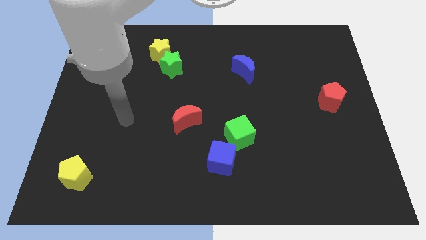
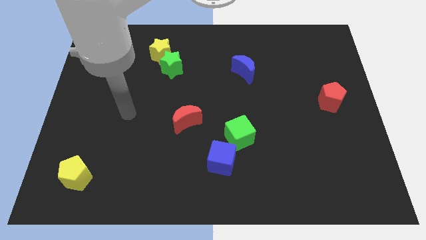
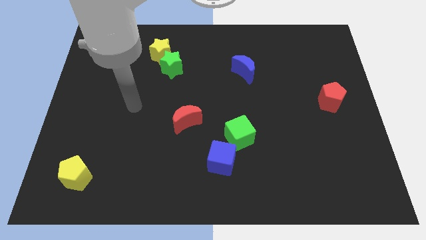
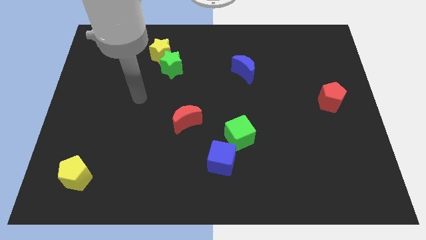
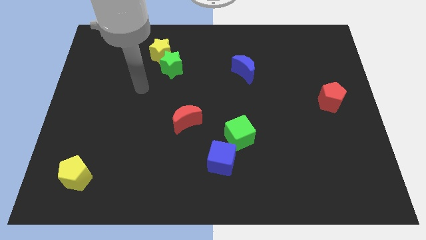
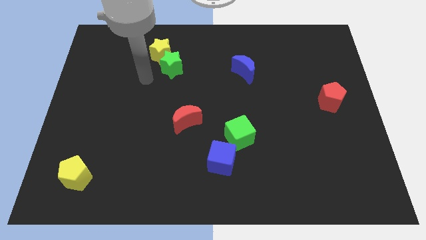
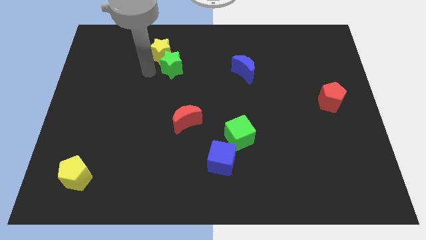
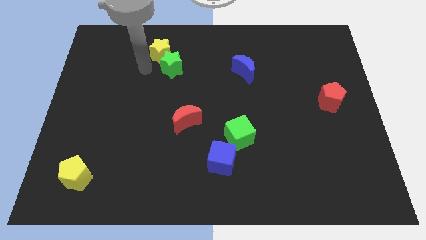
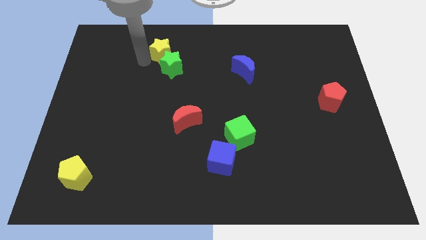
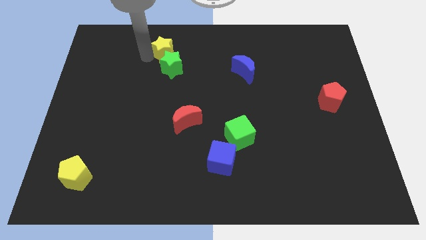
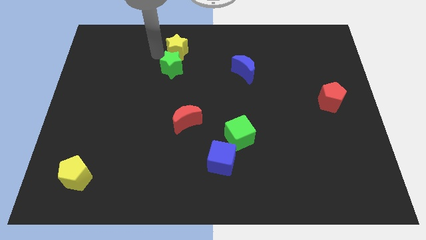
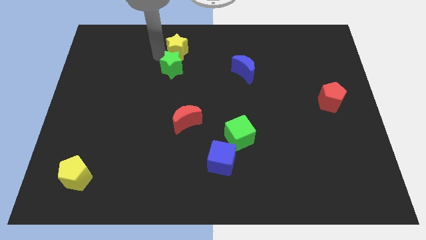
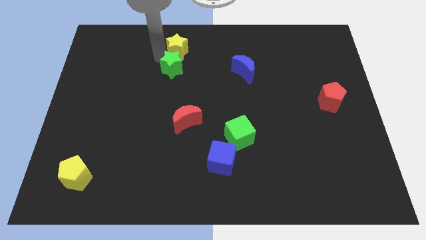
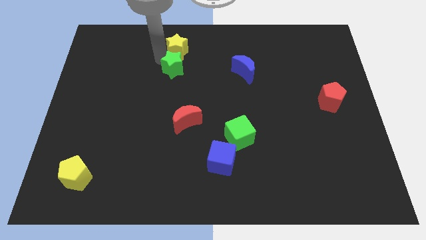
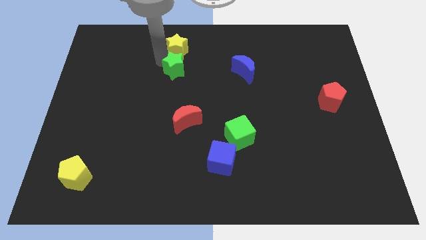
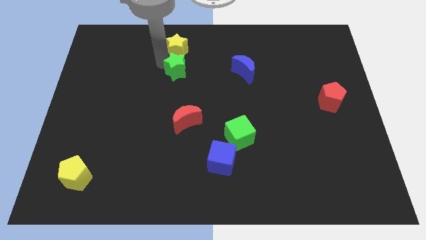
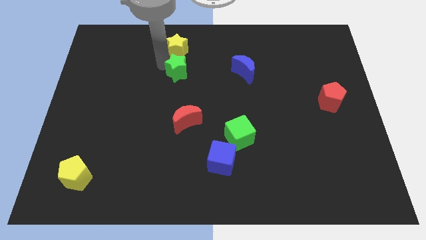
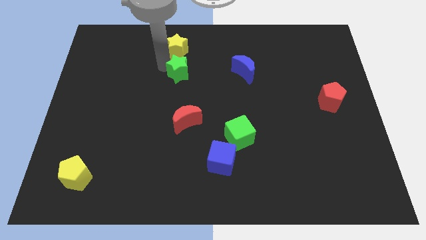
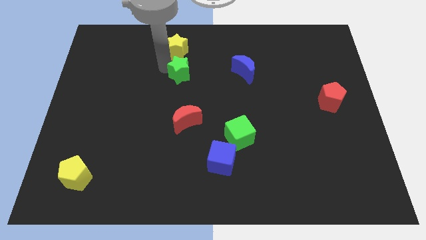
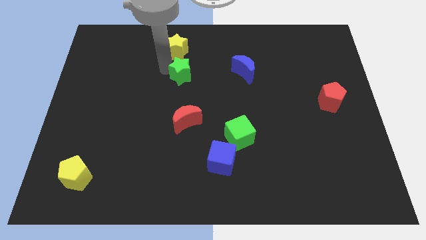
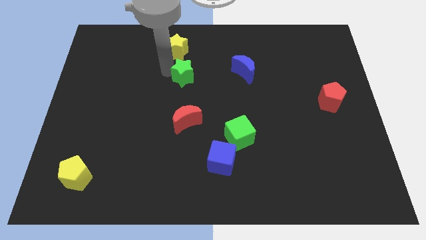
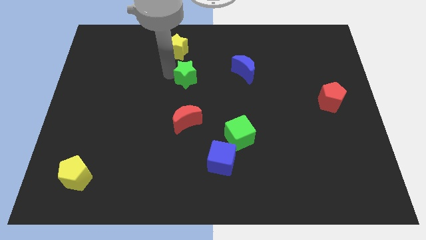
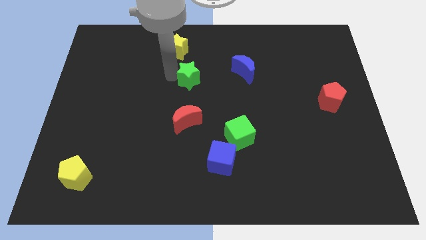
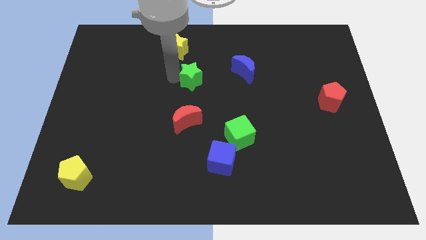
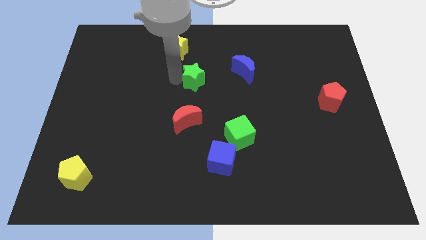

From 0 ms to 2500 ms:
slightly slide the green star diagonally downwards and to the right

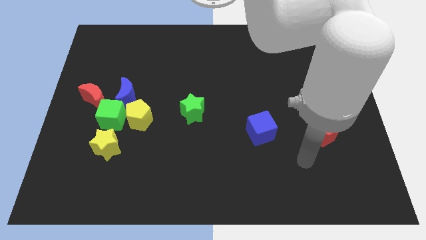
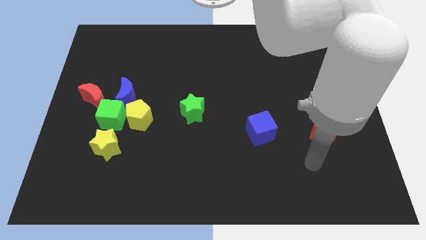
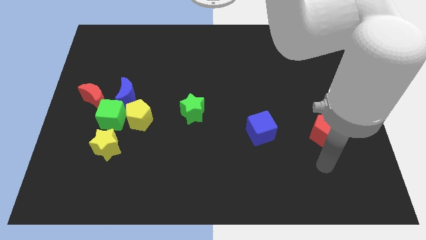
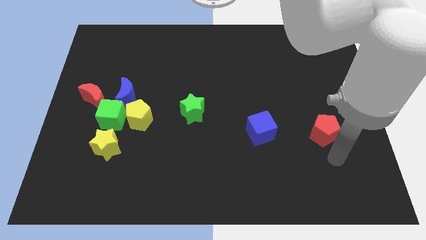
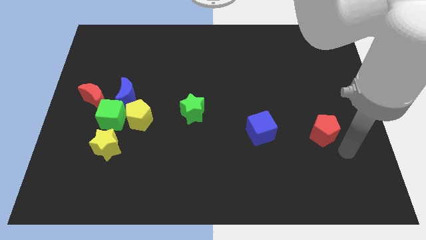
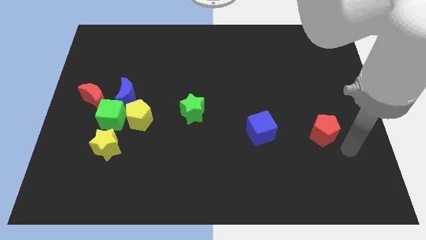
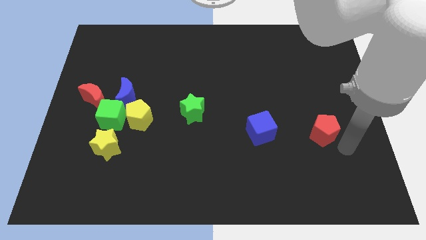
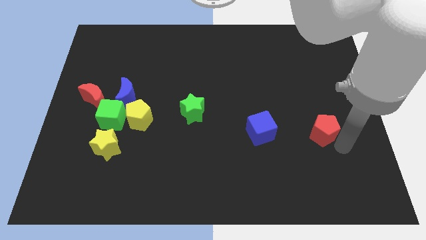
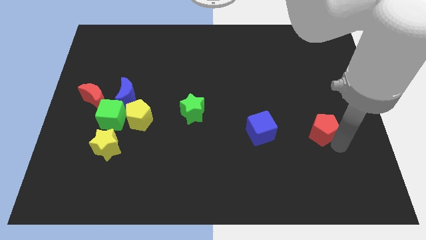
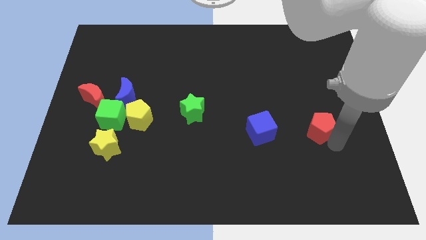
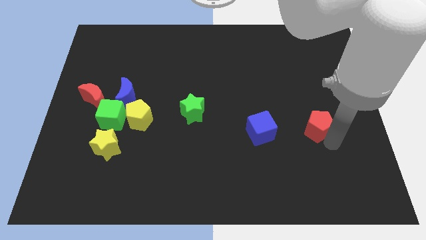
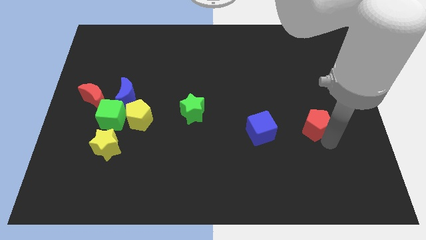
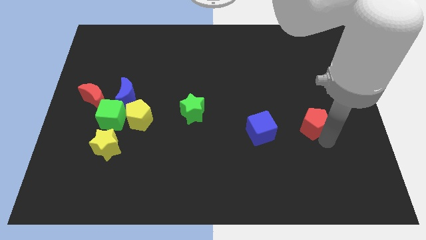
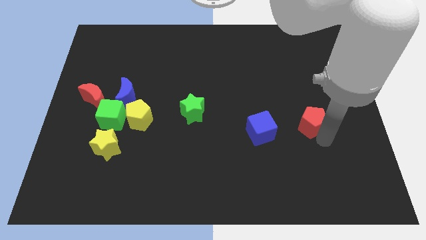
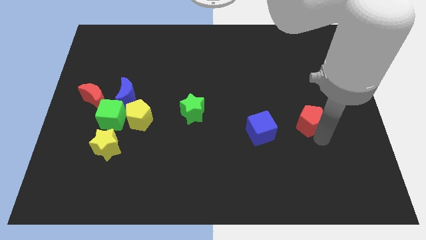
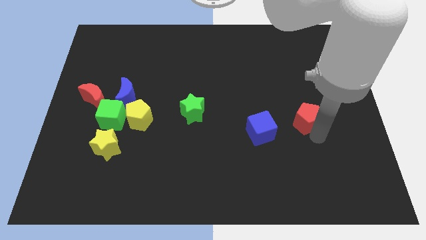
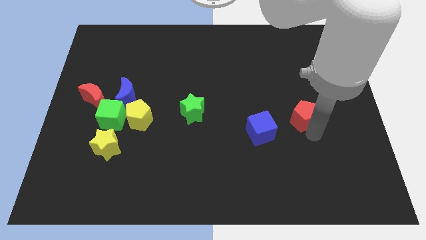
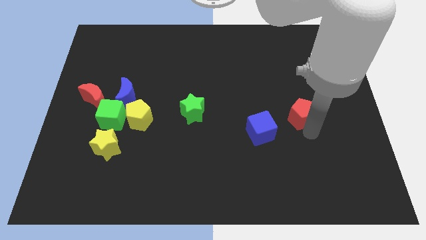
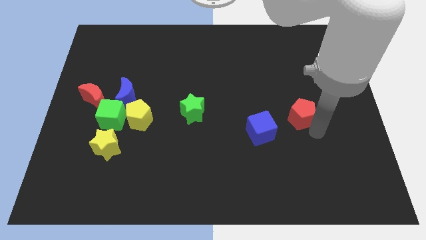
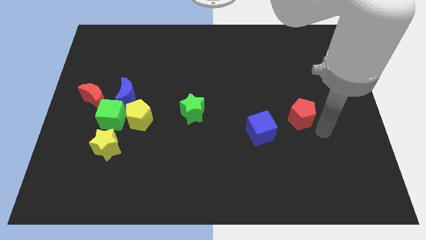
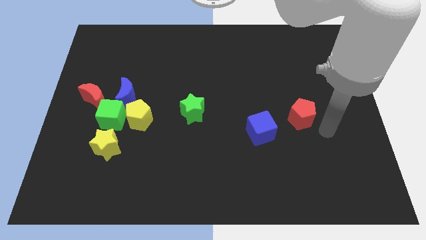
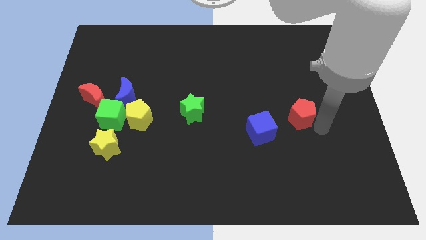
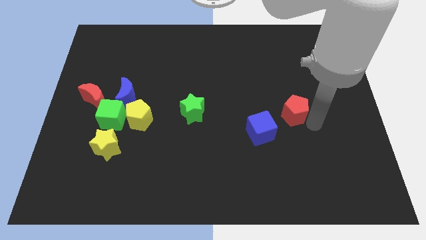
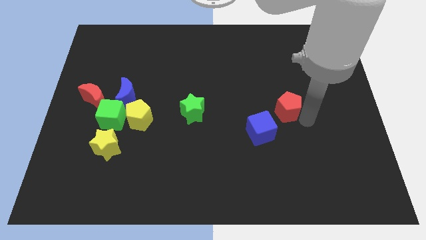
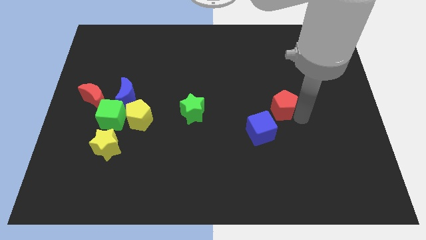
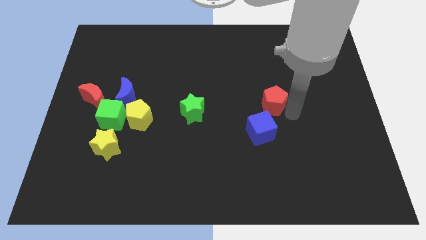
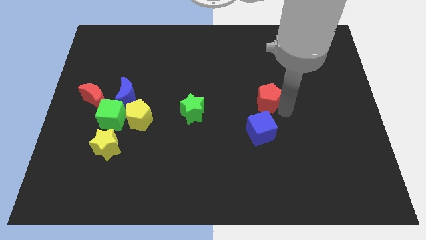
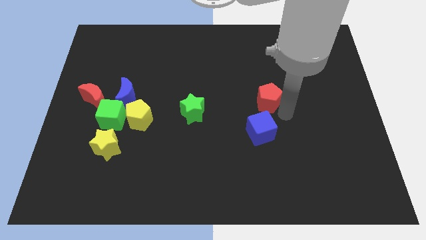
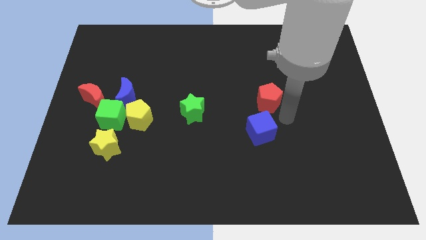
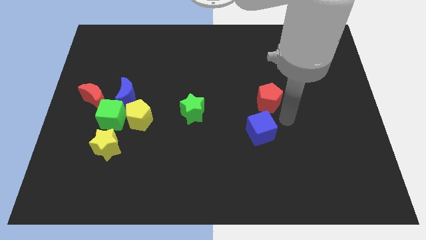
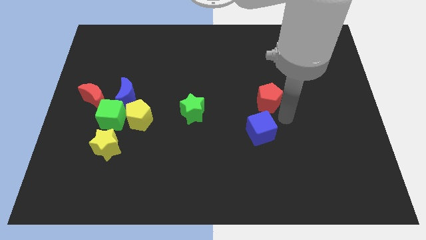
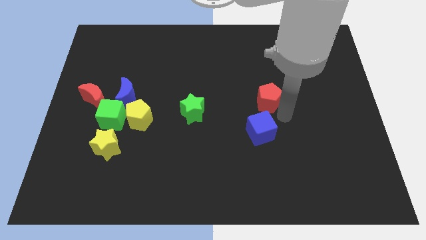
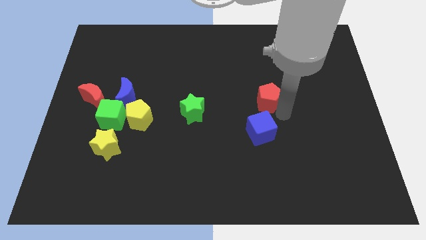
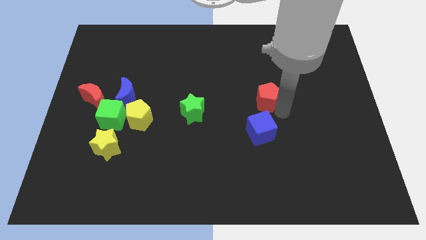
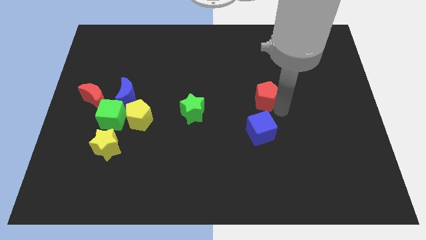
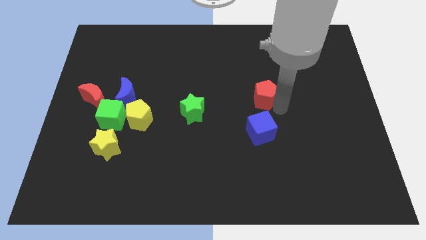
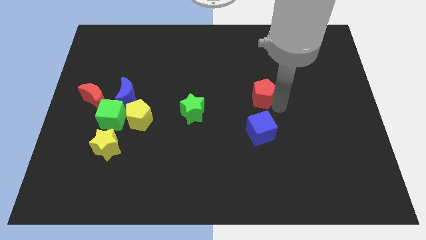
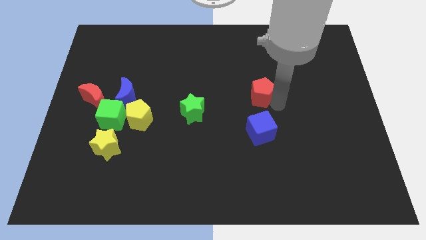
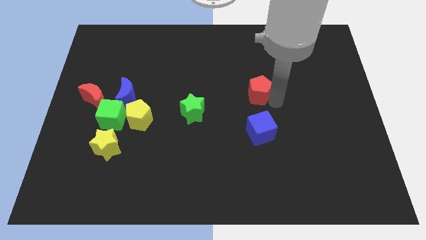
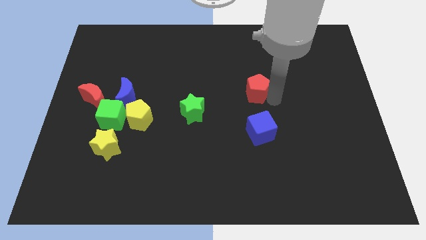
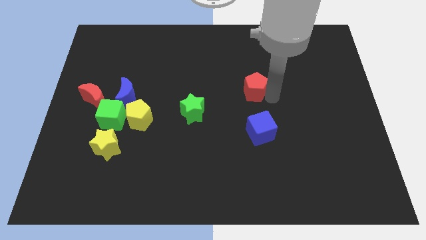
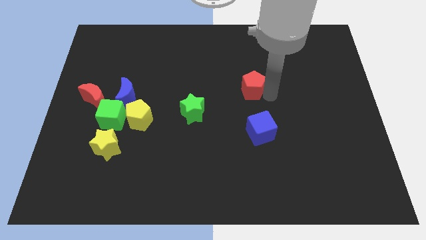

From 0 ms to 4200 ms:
slide the red pentagon up and left diagonally

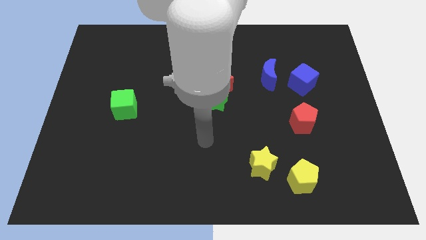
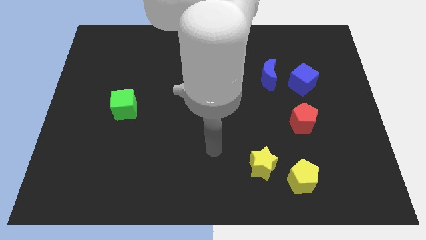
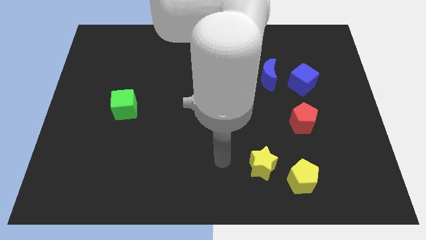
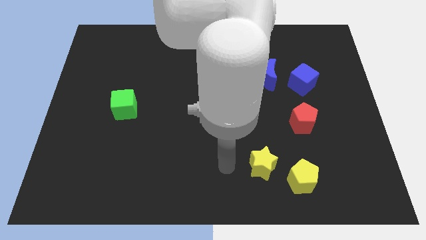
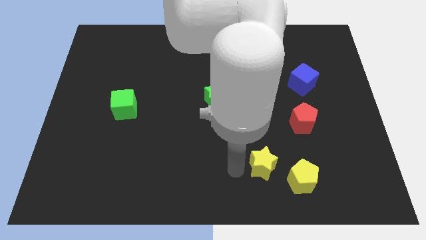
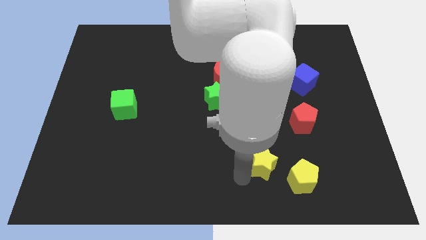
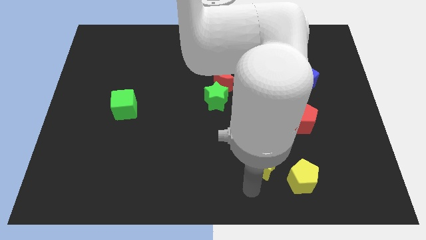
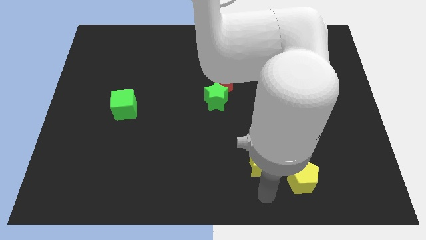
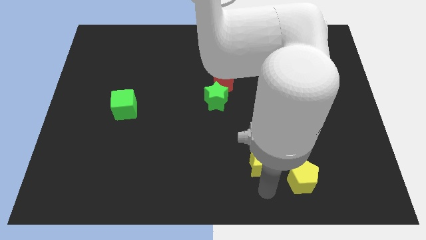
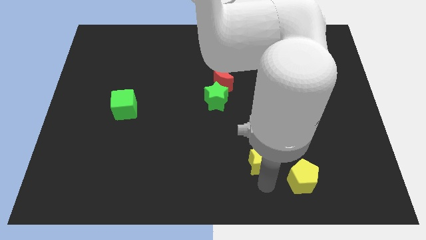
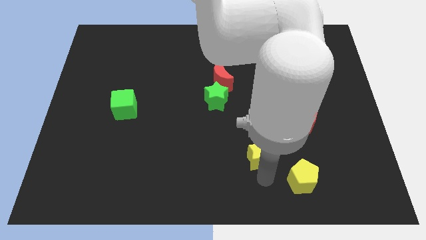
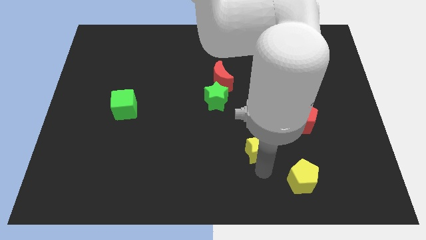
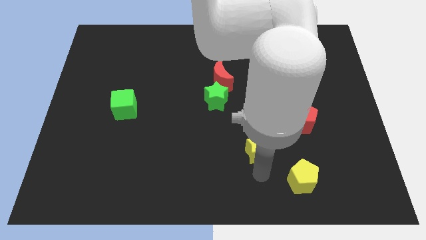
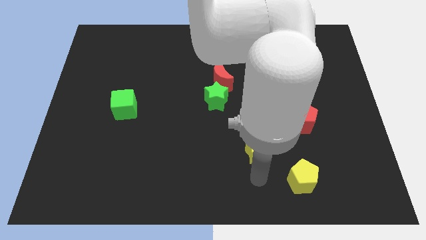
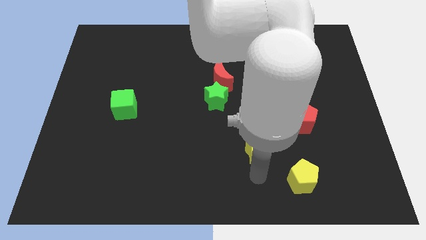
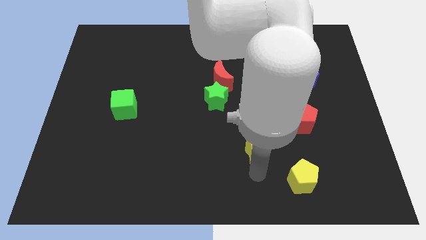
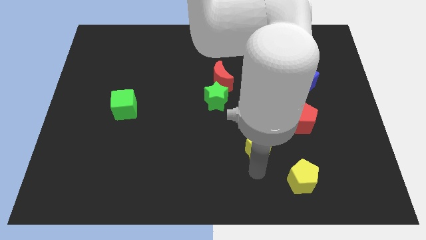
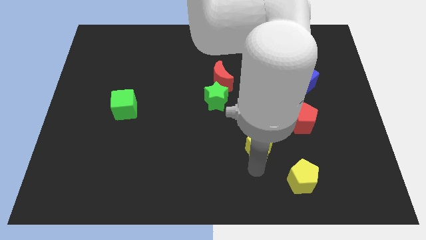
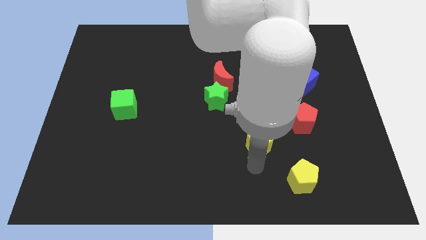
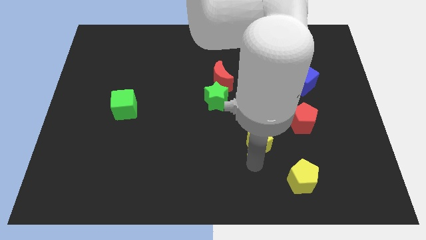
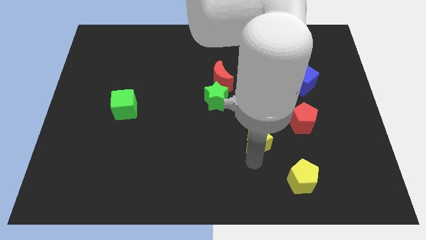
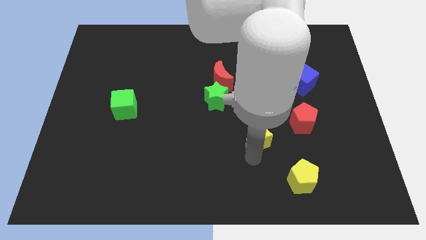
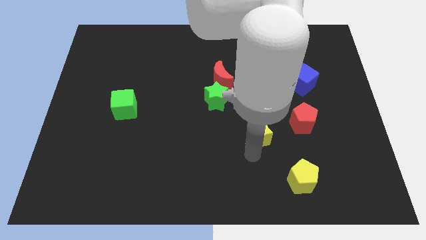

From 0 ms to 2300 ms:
move the yellow star upwards somewhat
